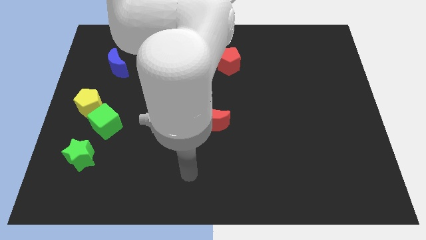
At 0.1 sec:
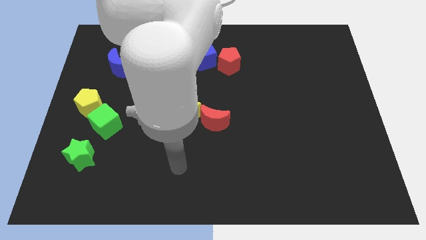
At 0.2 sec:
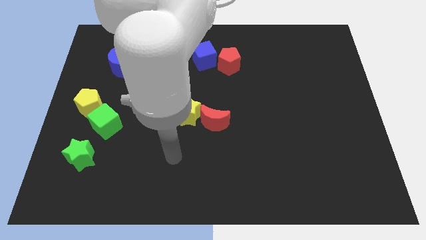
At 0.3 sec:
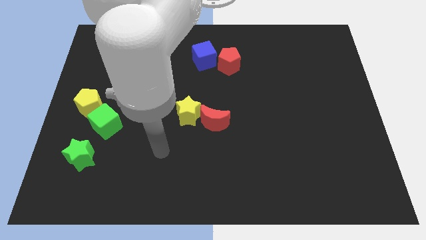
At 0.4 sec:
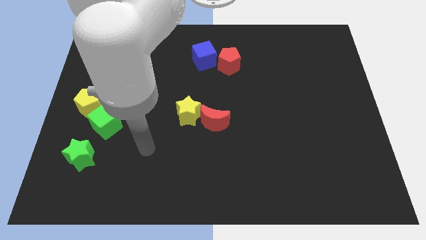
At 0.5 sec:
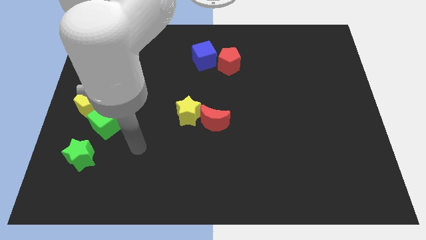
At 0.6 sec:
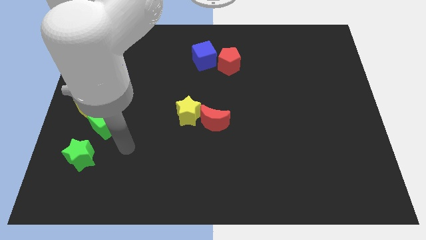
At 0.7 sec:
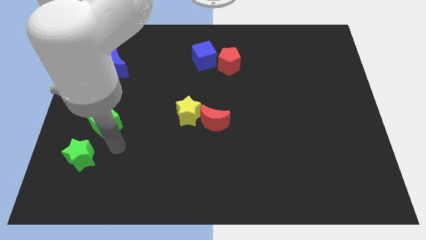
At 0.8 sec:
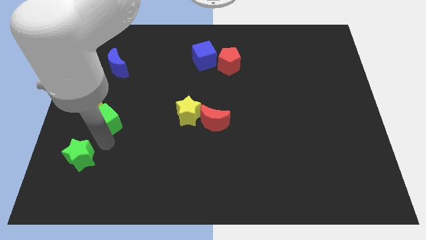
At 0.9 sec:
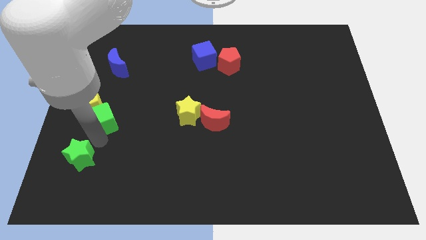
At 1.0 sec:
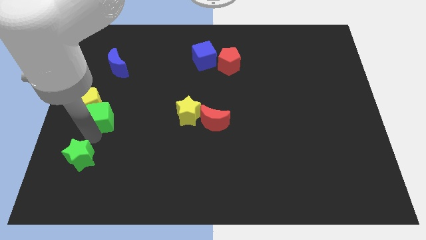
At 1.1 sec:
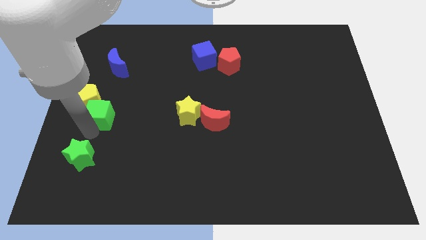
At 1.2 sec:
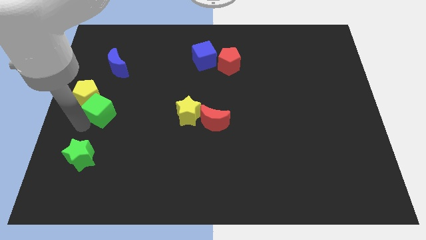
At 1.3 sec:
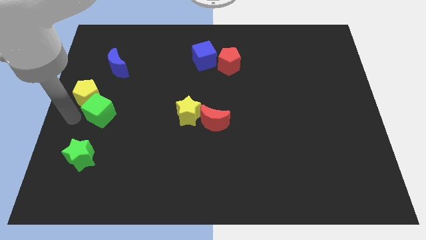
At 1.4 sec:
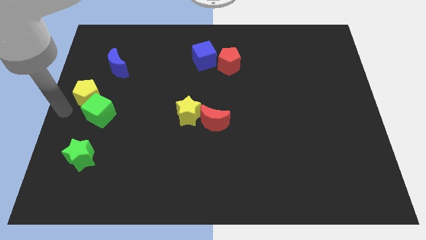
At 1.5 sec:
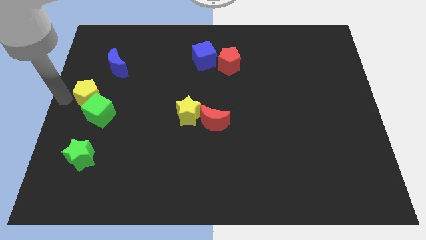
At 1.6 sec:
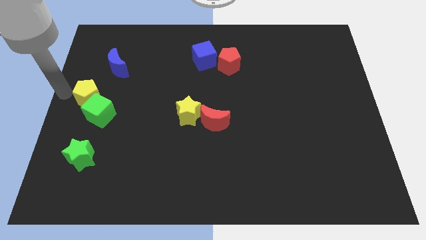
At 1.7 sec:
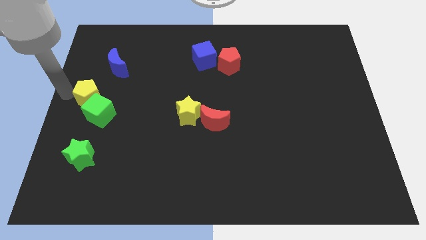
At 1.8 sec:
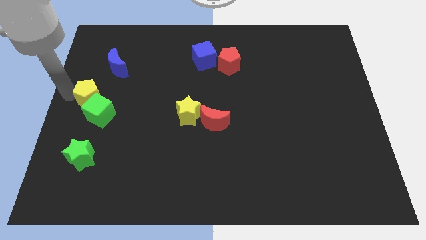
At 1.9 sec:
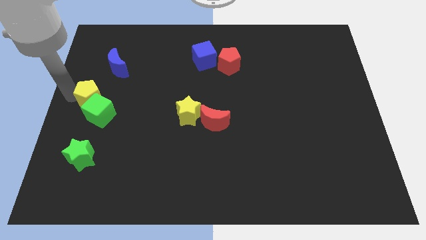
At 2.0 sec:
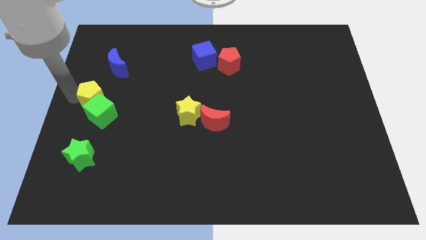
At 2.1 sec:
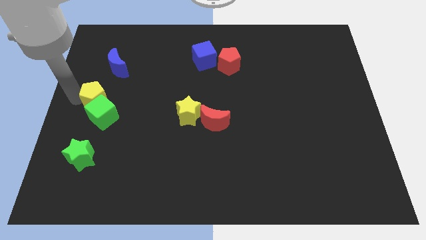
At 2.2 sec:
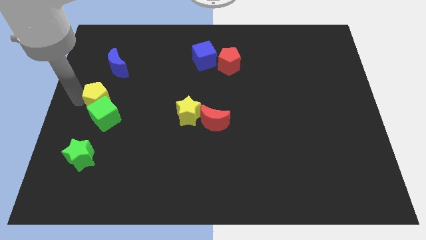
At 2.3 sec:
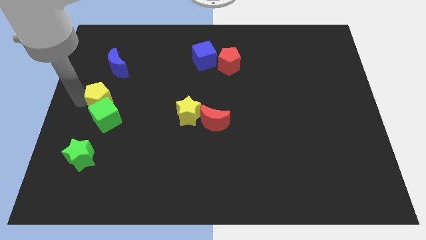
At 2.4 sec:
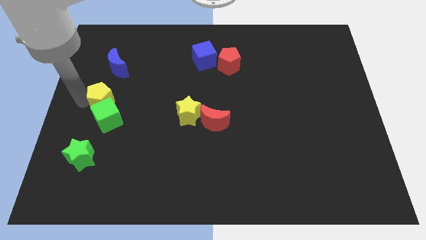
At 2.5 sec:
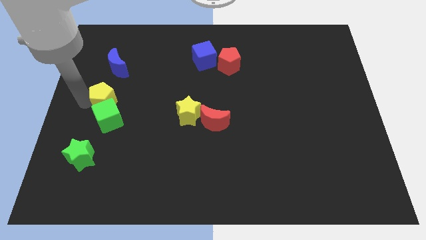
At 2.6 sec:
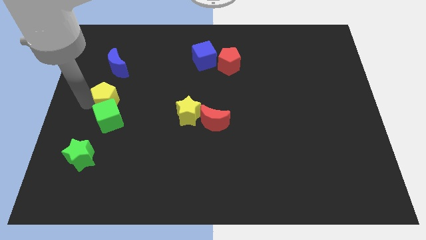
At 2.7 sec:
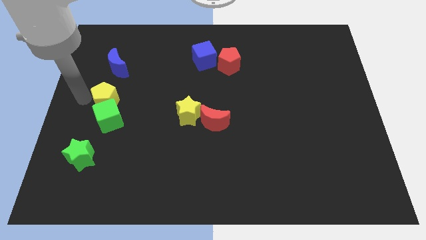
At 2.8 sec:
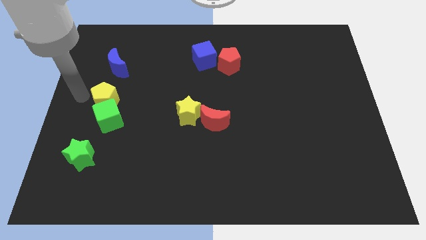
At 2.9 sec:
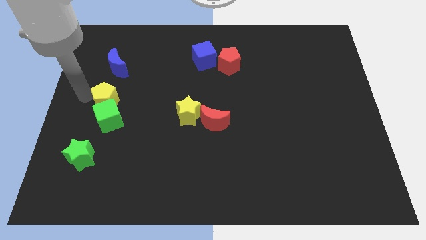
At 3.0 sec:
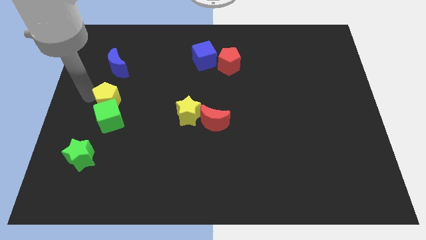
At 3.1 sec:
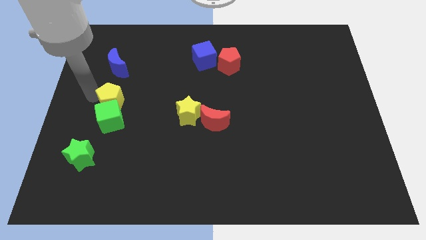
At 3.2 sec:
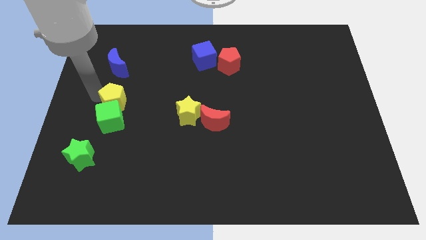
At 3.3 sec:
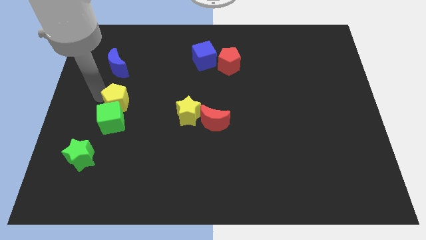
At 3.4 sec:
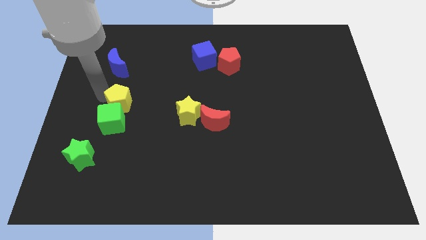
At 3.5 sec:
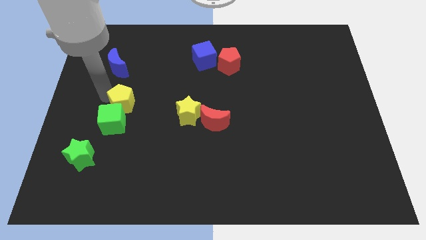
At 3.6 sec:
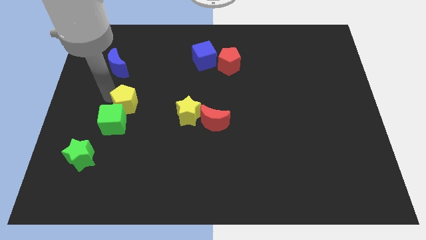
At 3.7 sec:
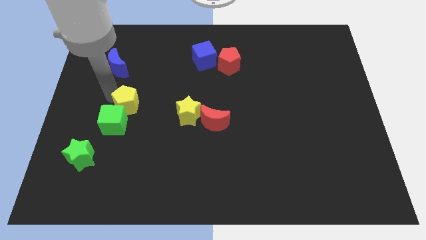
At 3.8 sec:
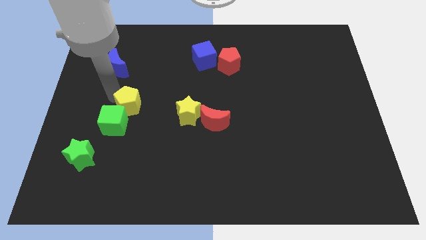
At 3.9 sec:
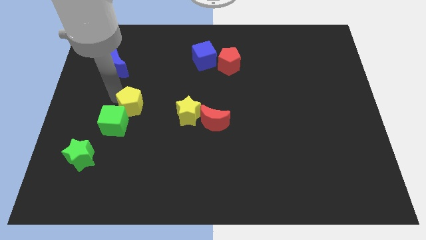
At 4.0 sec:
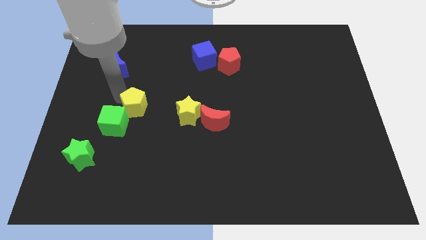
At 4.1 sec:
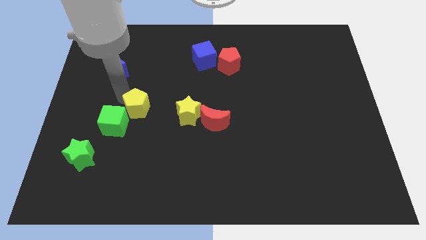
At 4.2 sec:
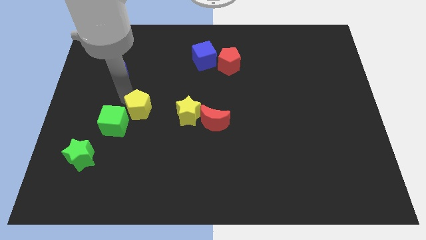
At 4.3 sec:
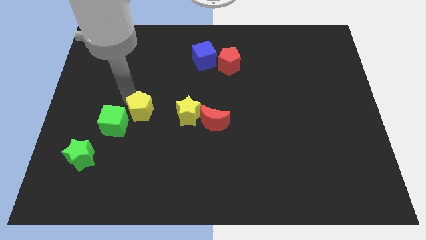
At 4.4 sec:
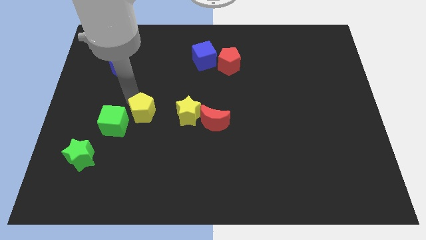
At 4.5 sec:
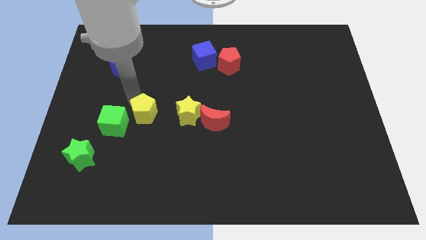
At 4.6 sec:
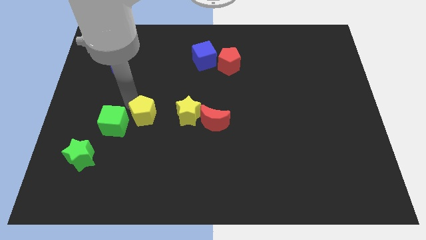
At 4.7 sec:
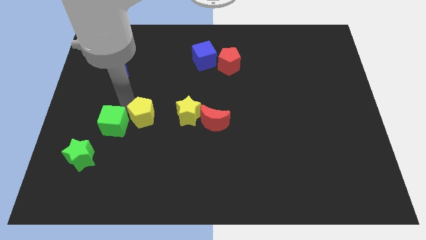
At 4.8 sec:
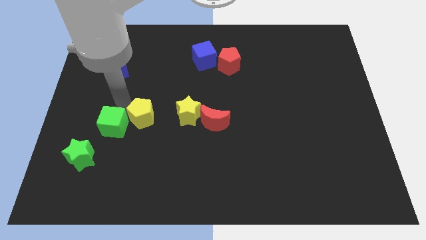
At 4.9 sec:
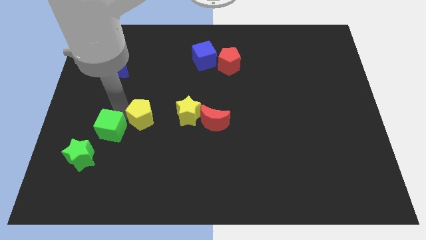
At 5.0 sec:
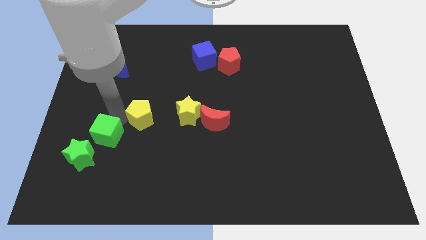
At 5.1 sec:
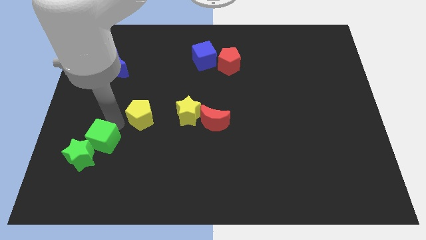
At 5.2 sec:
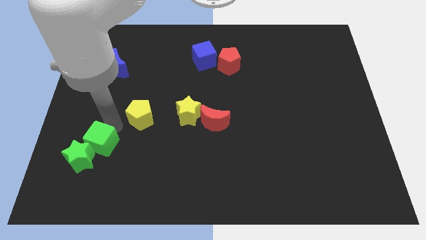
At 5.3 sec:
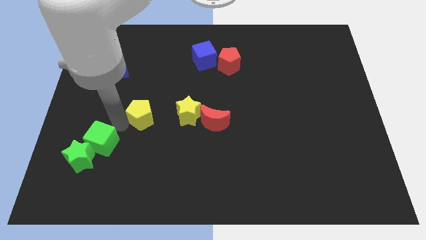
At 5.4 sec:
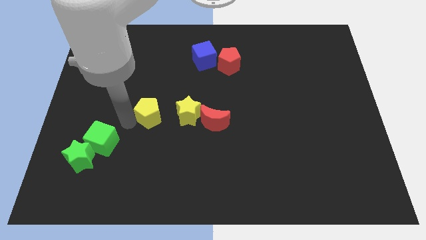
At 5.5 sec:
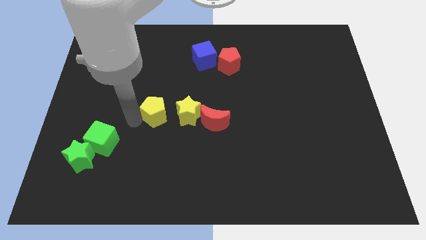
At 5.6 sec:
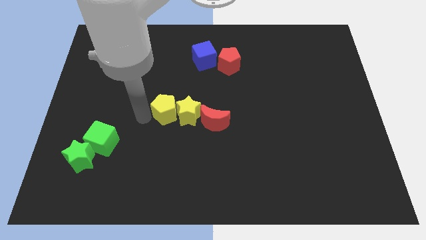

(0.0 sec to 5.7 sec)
put the yellow pentagon close to the yellow star

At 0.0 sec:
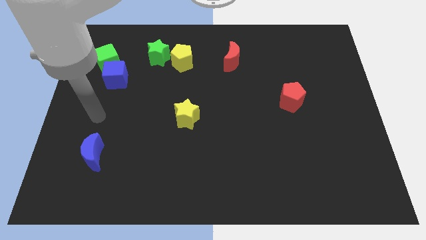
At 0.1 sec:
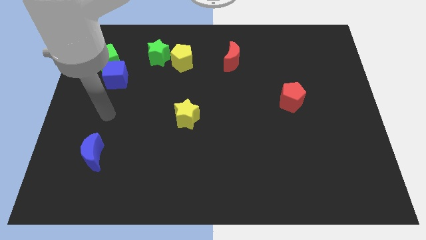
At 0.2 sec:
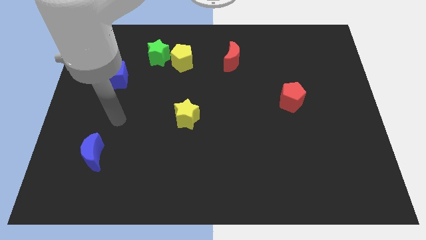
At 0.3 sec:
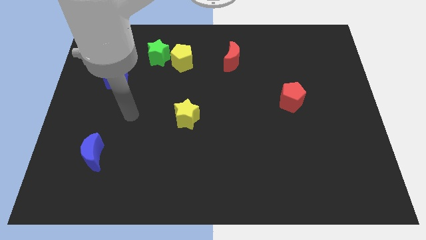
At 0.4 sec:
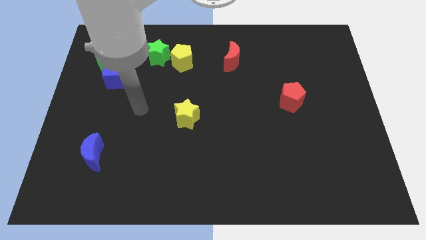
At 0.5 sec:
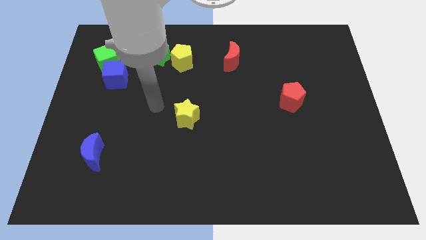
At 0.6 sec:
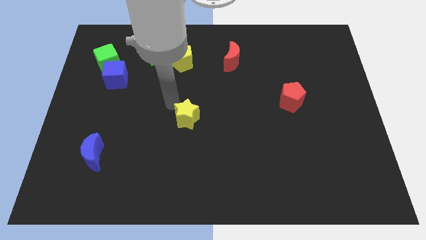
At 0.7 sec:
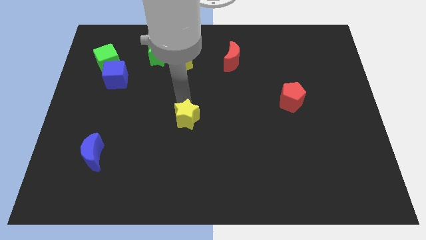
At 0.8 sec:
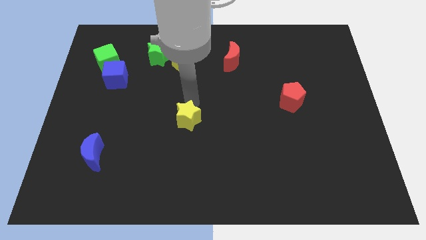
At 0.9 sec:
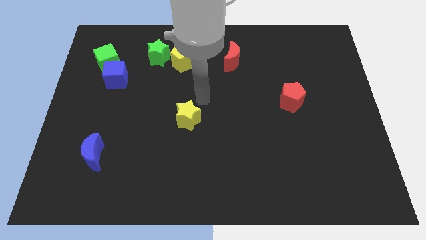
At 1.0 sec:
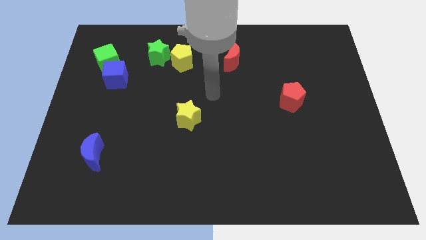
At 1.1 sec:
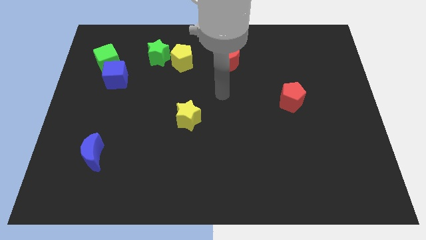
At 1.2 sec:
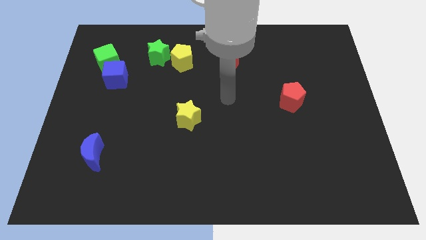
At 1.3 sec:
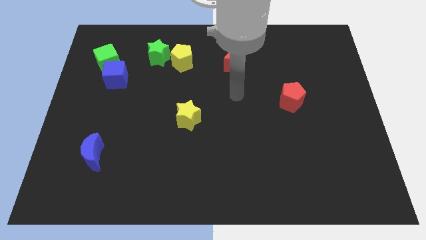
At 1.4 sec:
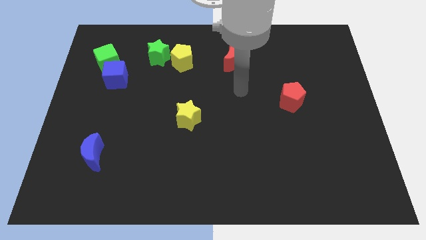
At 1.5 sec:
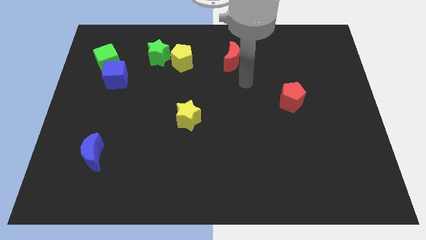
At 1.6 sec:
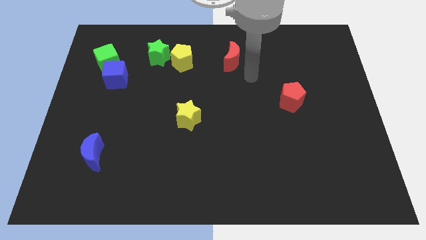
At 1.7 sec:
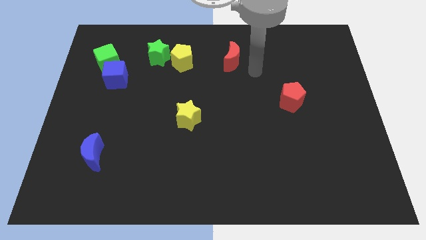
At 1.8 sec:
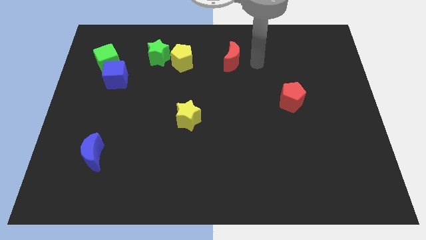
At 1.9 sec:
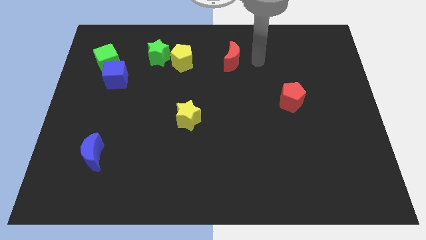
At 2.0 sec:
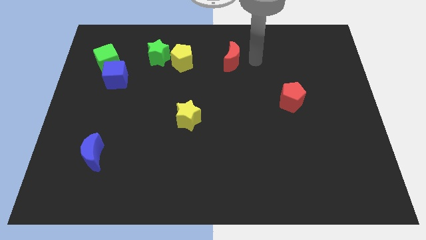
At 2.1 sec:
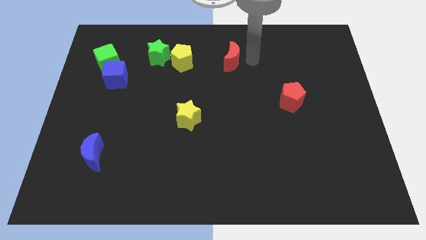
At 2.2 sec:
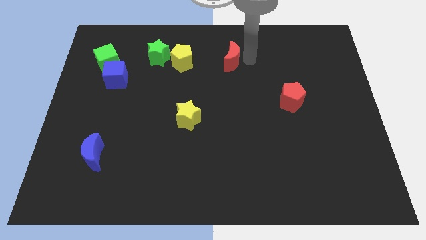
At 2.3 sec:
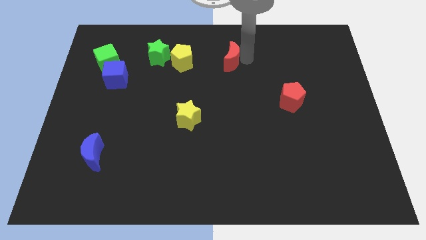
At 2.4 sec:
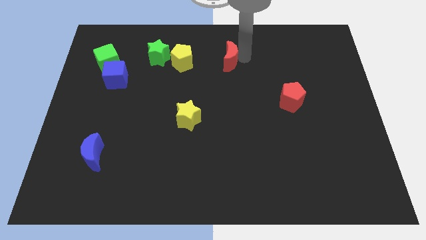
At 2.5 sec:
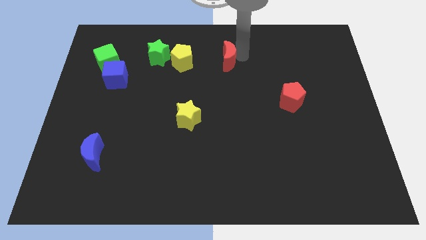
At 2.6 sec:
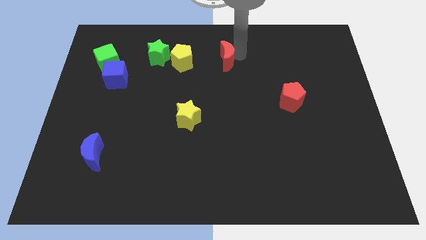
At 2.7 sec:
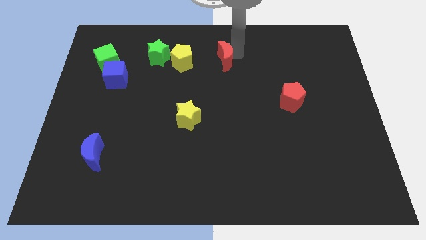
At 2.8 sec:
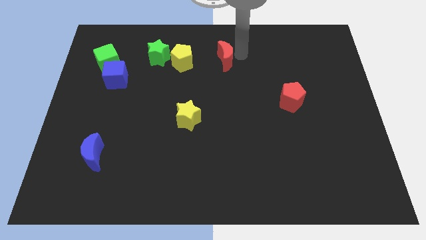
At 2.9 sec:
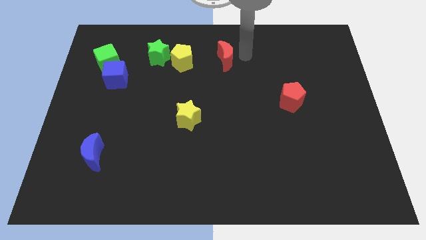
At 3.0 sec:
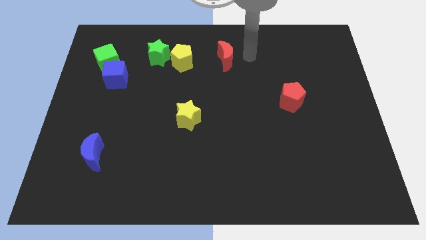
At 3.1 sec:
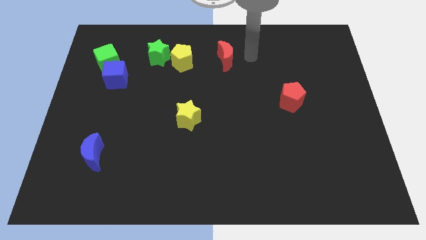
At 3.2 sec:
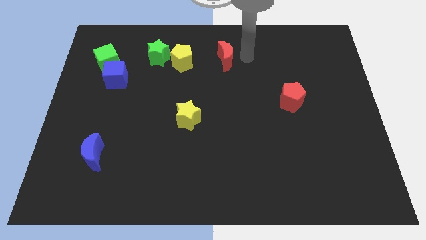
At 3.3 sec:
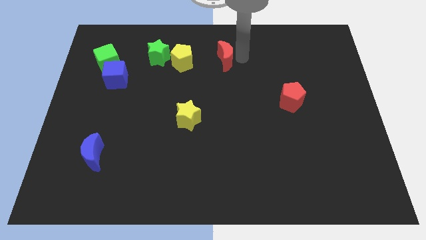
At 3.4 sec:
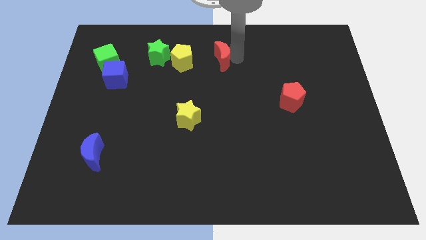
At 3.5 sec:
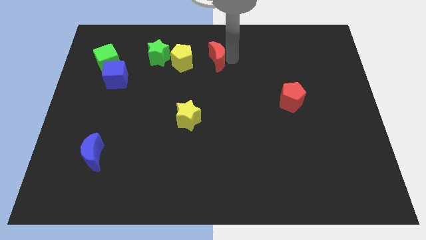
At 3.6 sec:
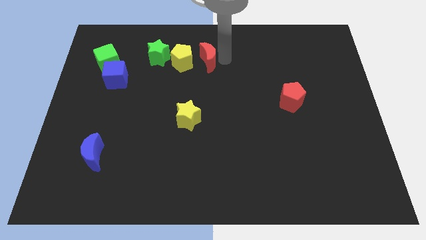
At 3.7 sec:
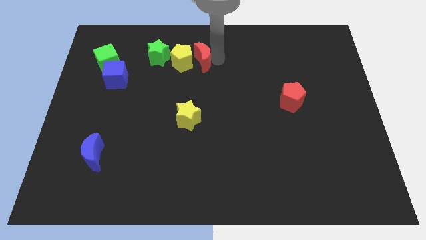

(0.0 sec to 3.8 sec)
slide the red moon towards the yellow pentagon
